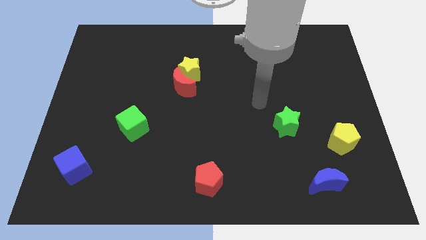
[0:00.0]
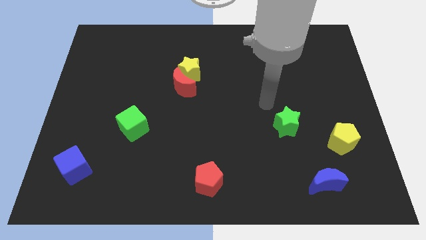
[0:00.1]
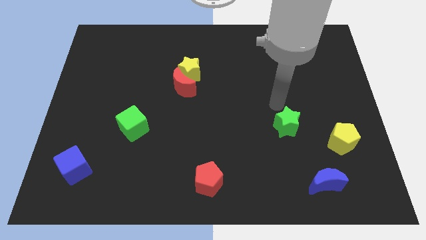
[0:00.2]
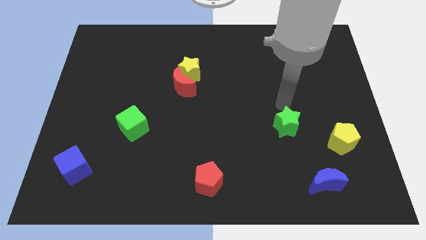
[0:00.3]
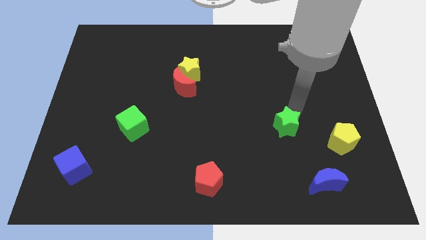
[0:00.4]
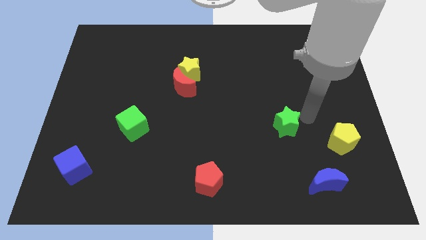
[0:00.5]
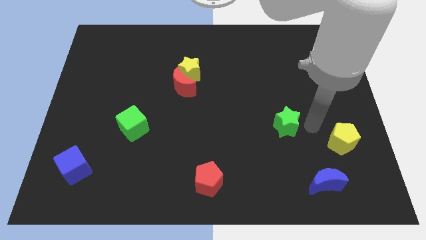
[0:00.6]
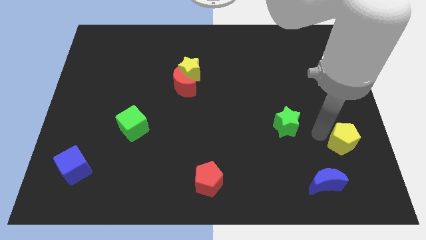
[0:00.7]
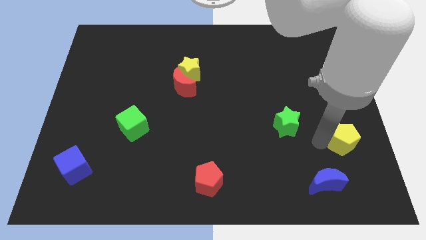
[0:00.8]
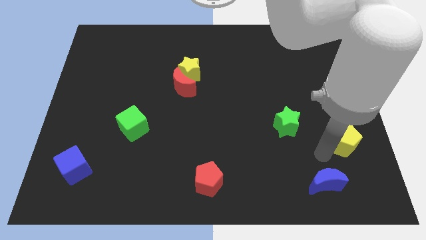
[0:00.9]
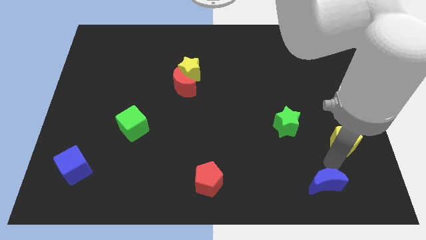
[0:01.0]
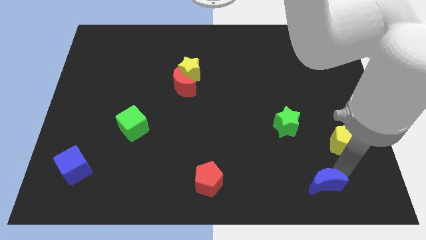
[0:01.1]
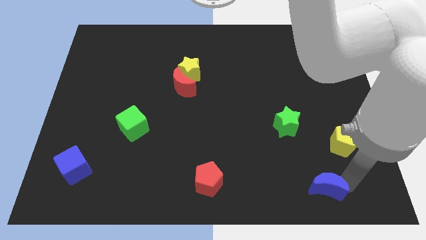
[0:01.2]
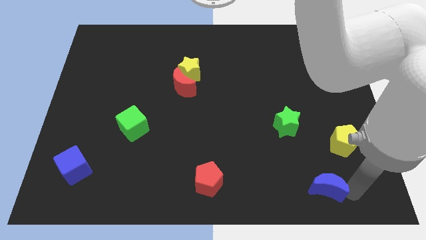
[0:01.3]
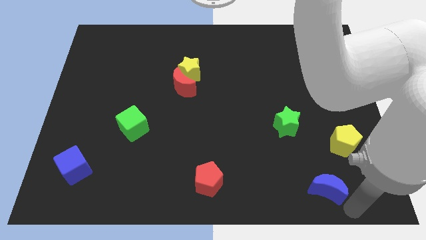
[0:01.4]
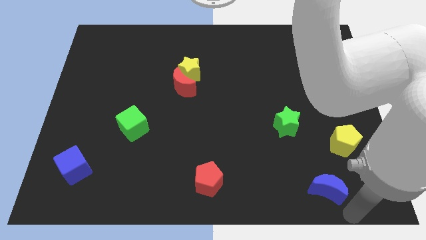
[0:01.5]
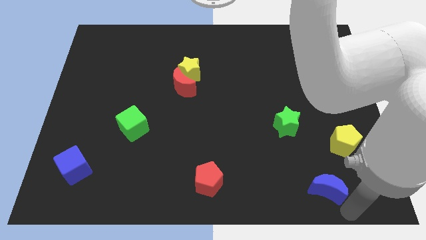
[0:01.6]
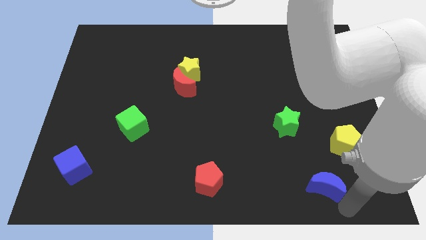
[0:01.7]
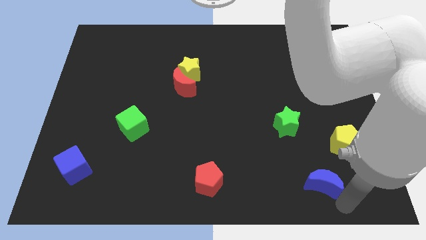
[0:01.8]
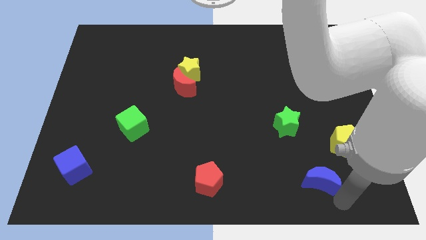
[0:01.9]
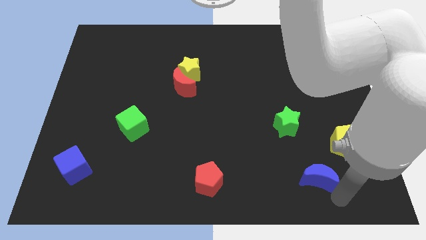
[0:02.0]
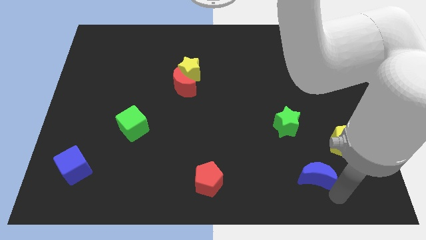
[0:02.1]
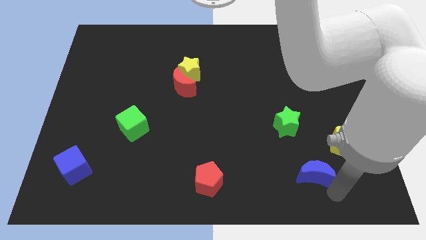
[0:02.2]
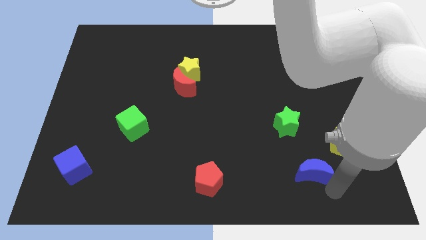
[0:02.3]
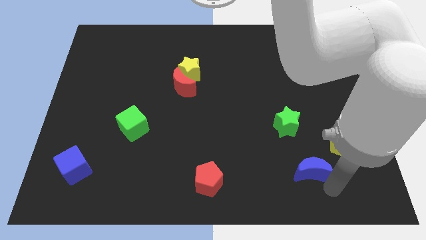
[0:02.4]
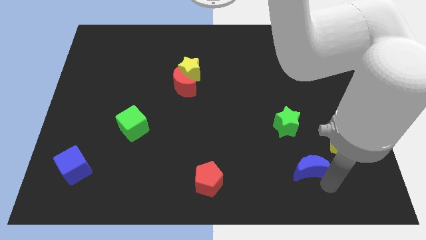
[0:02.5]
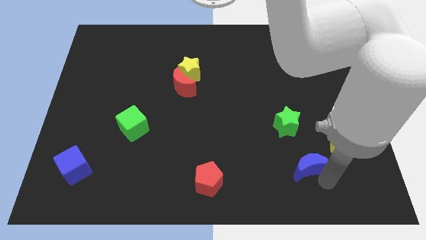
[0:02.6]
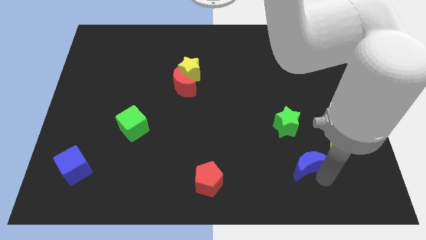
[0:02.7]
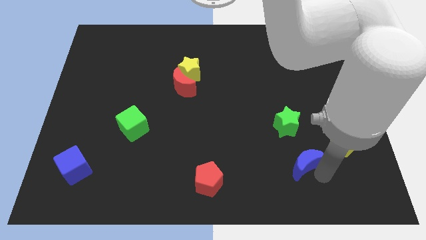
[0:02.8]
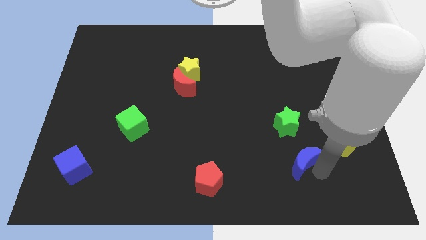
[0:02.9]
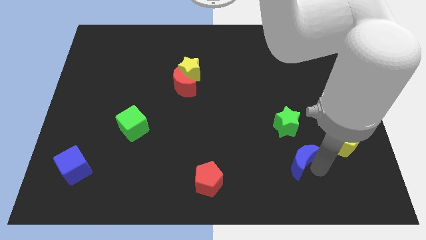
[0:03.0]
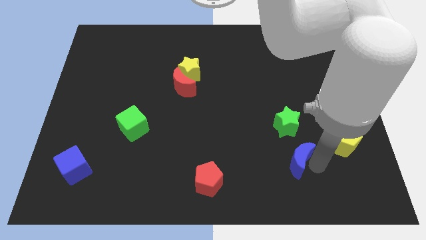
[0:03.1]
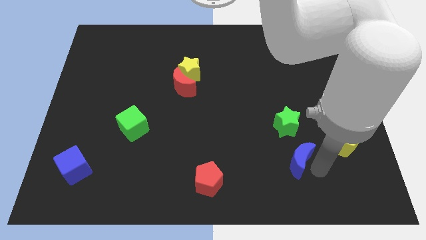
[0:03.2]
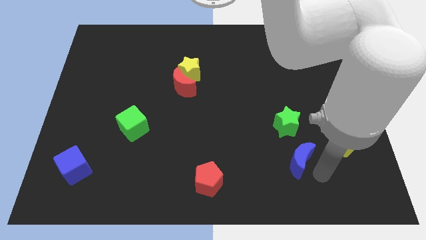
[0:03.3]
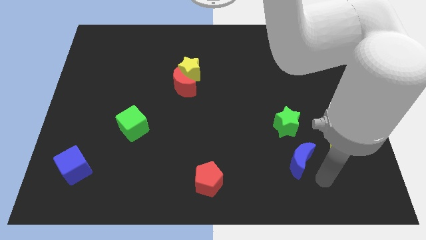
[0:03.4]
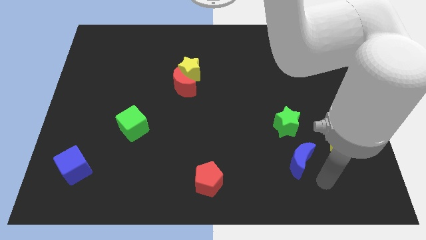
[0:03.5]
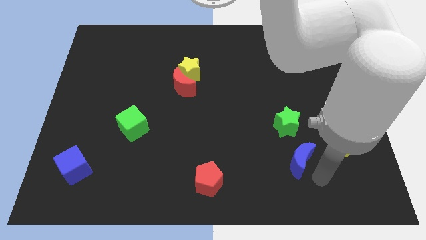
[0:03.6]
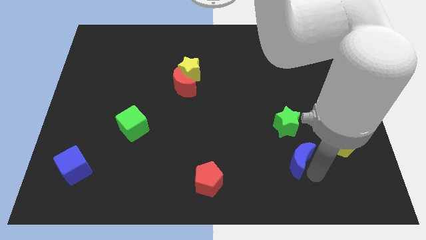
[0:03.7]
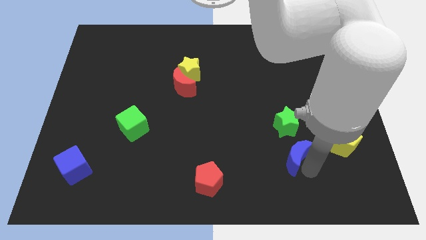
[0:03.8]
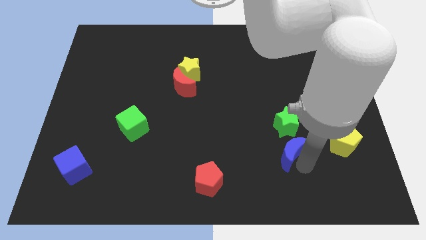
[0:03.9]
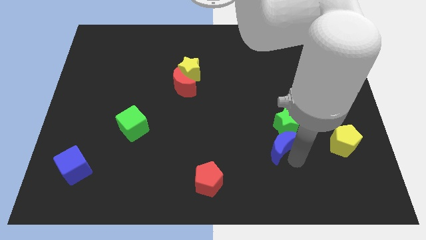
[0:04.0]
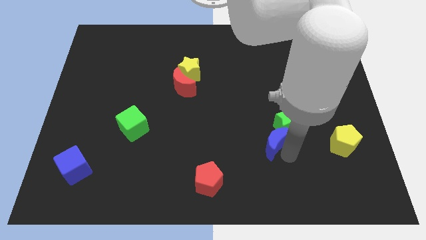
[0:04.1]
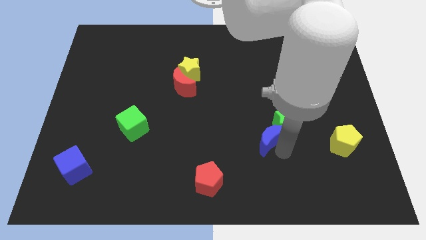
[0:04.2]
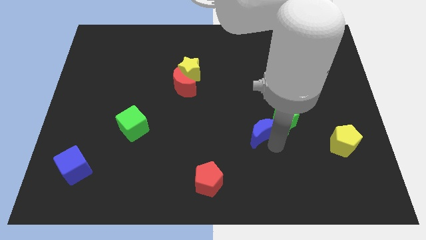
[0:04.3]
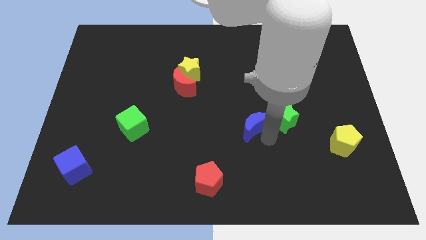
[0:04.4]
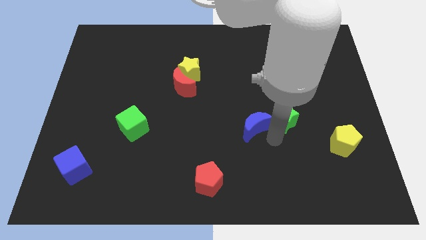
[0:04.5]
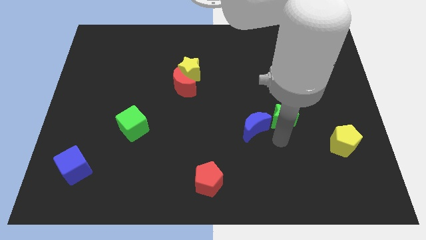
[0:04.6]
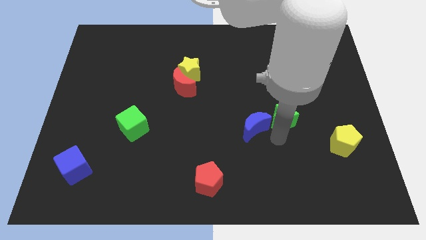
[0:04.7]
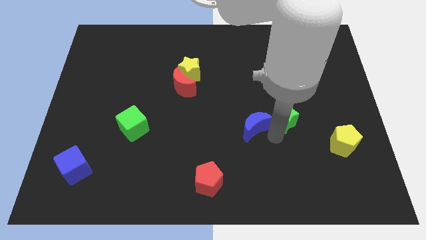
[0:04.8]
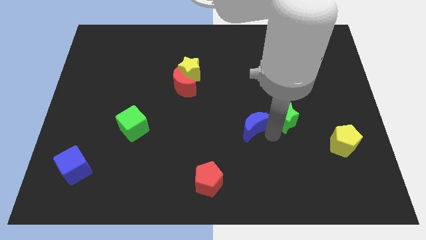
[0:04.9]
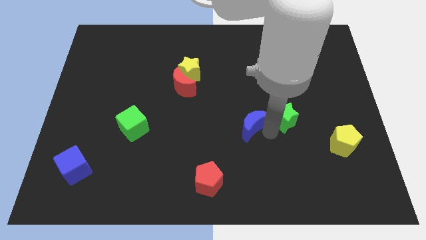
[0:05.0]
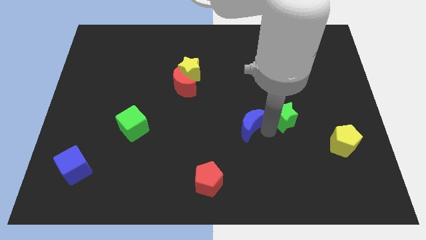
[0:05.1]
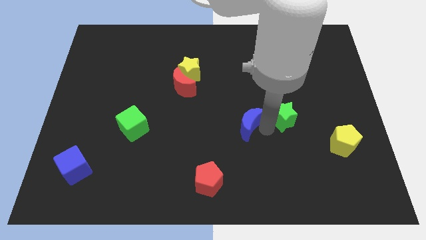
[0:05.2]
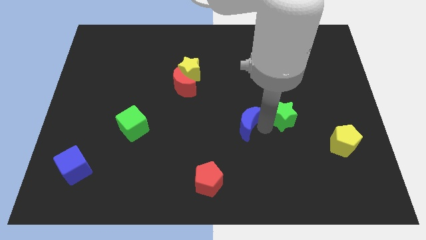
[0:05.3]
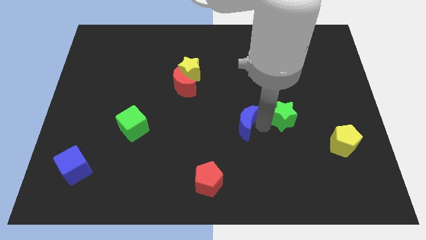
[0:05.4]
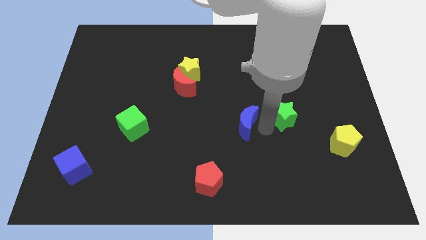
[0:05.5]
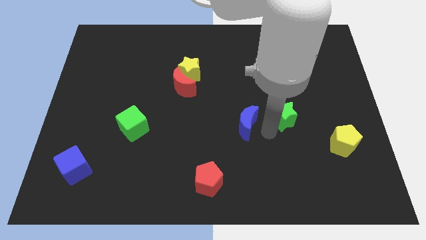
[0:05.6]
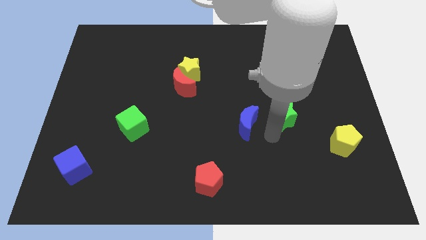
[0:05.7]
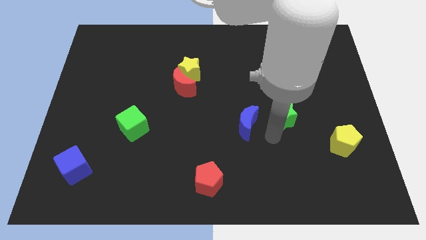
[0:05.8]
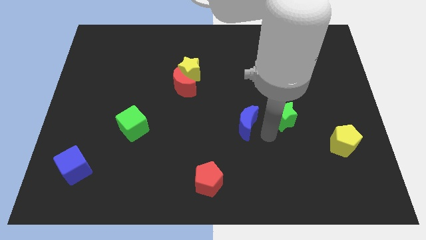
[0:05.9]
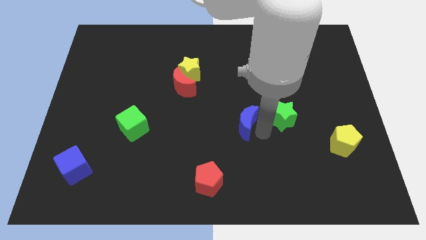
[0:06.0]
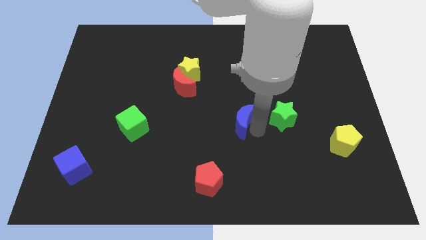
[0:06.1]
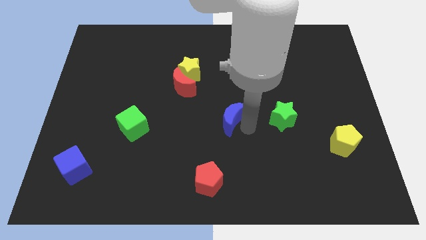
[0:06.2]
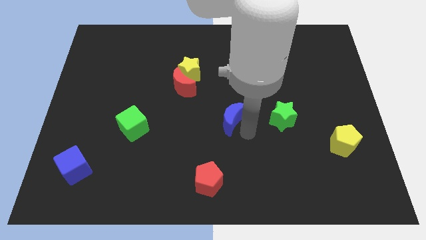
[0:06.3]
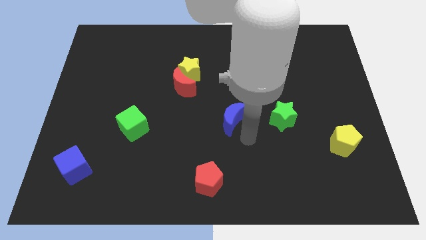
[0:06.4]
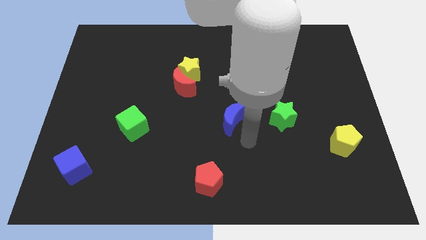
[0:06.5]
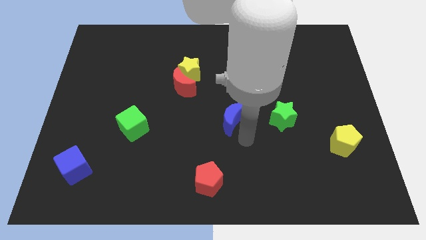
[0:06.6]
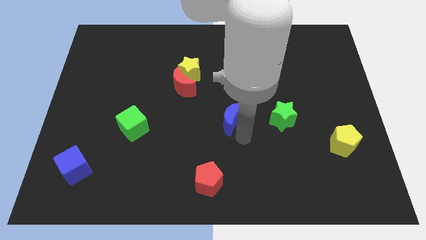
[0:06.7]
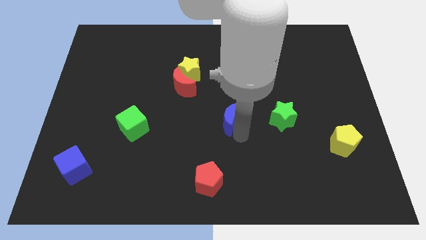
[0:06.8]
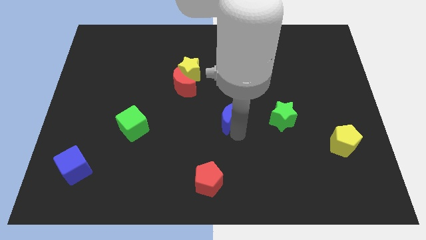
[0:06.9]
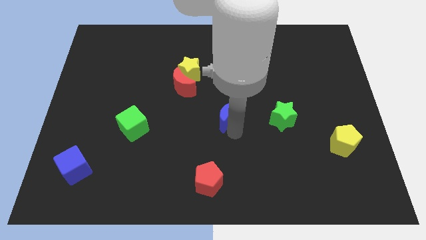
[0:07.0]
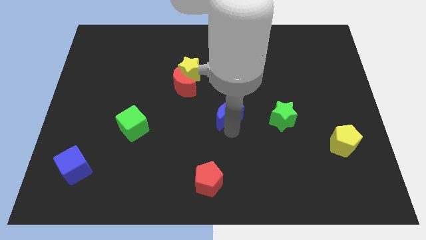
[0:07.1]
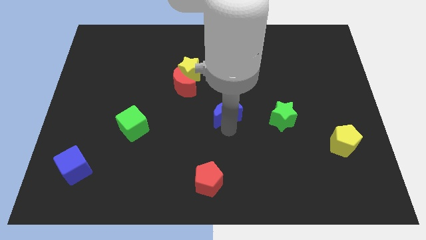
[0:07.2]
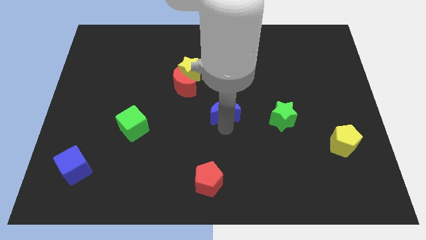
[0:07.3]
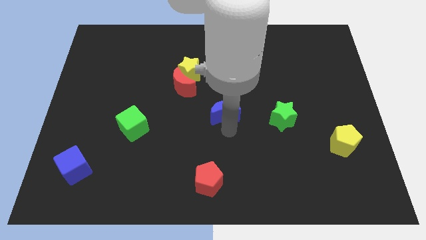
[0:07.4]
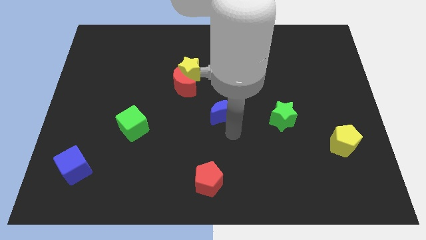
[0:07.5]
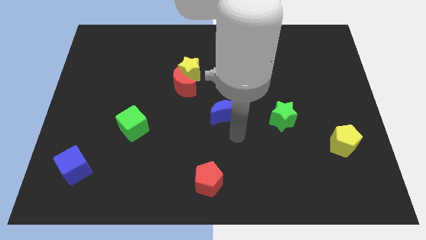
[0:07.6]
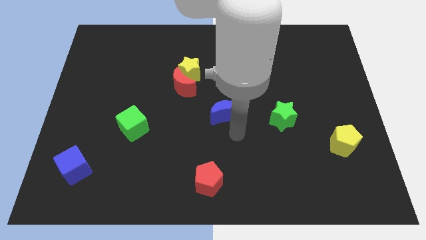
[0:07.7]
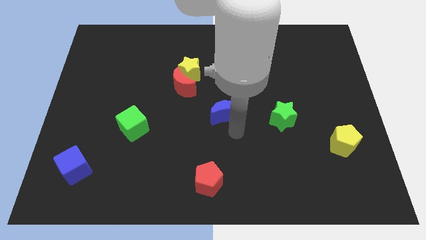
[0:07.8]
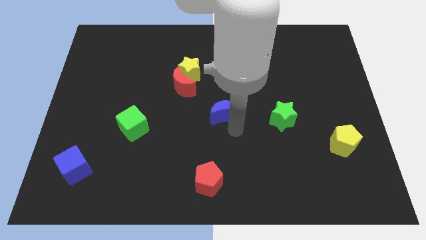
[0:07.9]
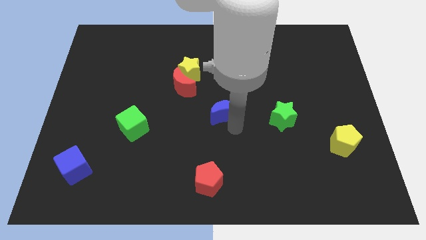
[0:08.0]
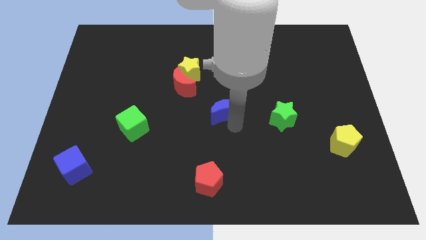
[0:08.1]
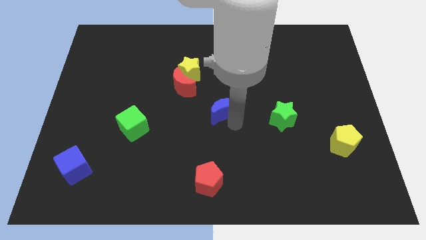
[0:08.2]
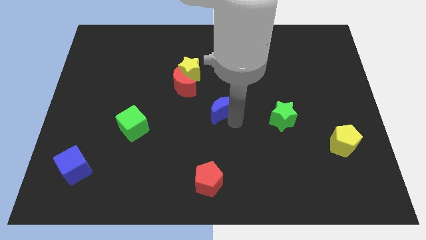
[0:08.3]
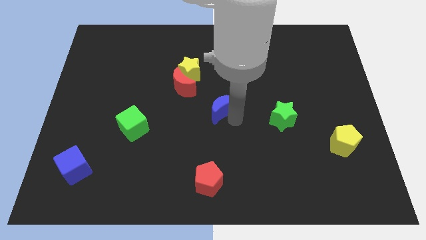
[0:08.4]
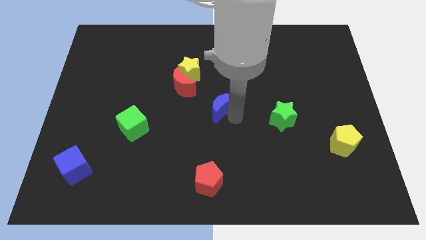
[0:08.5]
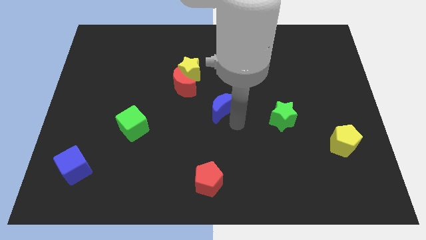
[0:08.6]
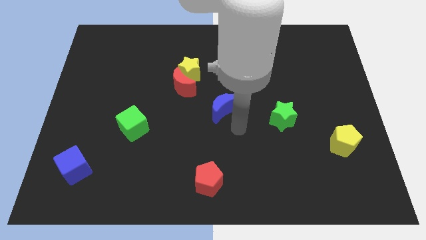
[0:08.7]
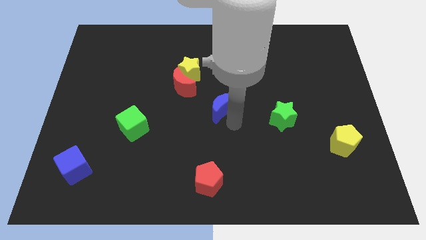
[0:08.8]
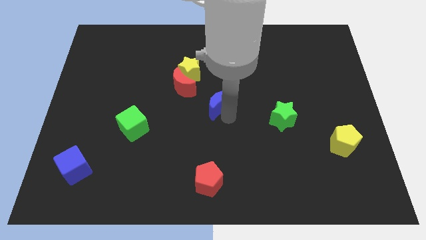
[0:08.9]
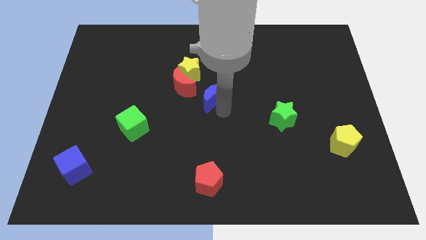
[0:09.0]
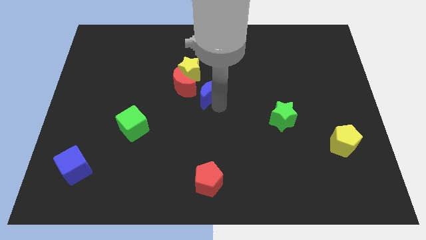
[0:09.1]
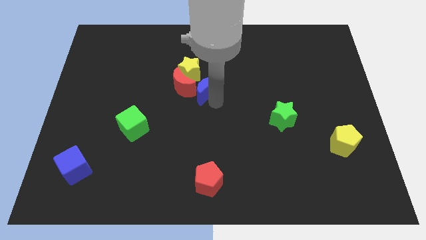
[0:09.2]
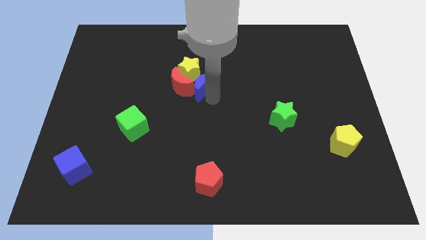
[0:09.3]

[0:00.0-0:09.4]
move the blue moon close to the yellow star
